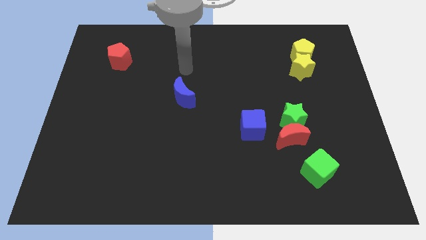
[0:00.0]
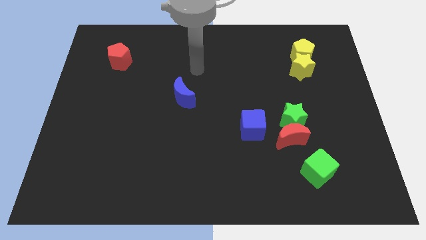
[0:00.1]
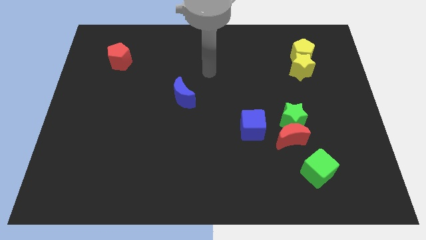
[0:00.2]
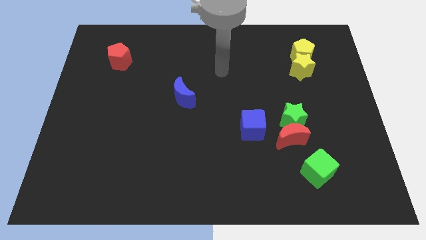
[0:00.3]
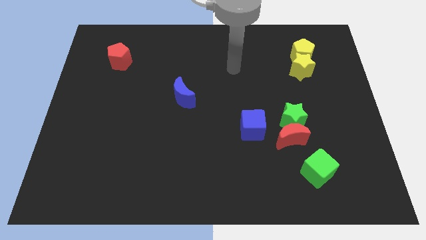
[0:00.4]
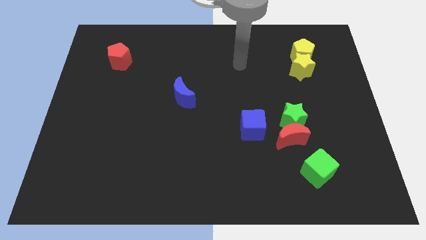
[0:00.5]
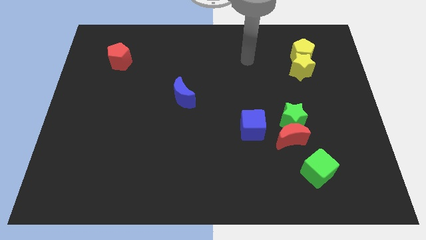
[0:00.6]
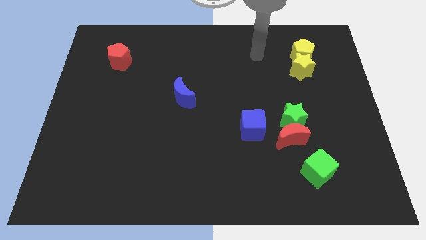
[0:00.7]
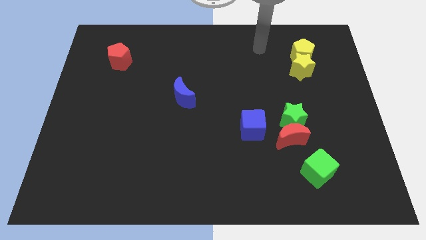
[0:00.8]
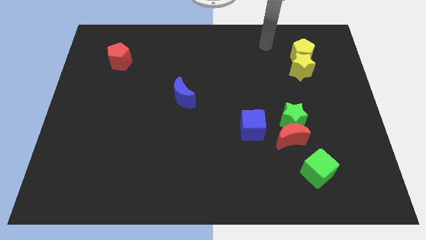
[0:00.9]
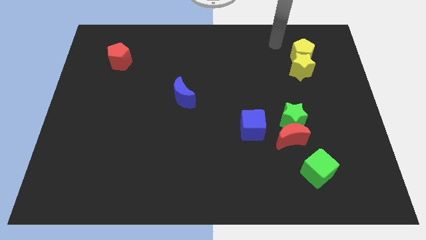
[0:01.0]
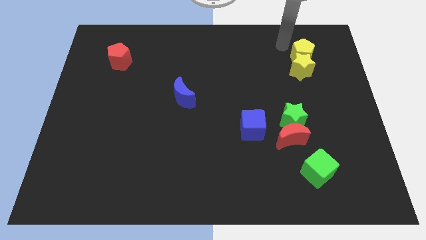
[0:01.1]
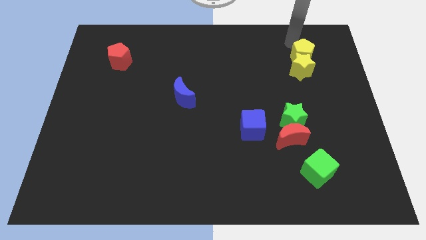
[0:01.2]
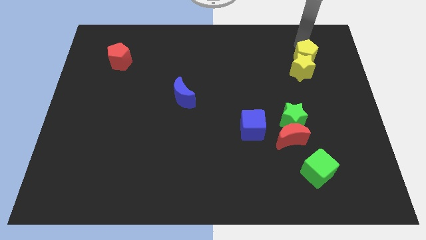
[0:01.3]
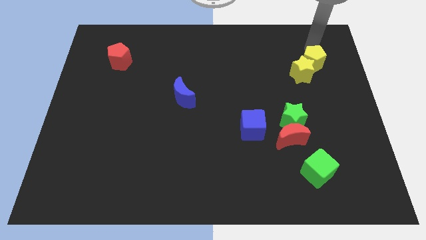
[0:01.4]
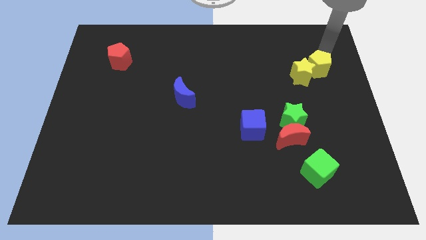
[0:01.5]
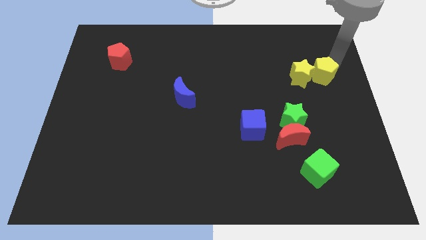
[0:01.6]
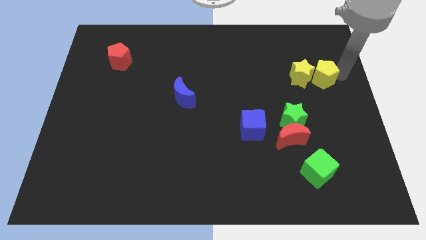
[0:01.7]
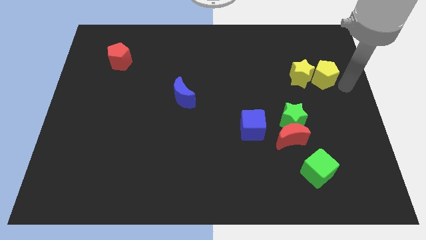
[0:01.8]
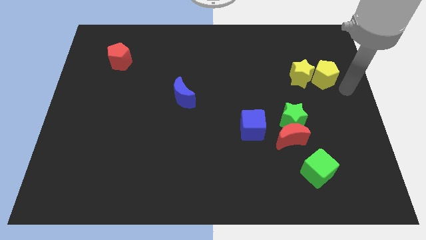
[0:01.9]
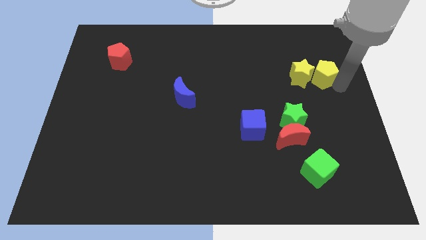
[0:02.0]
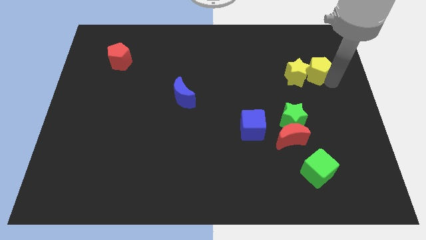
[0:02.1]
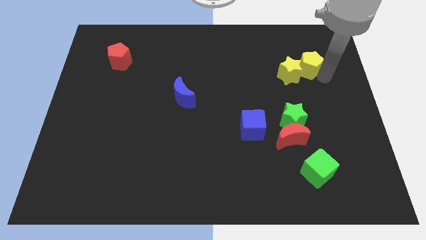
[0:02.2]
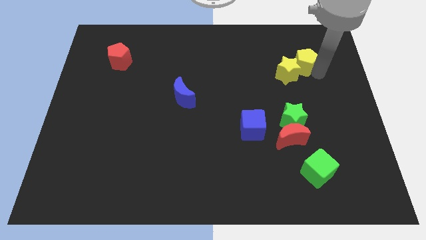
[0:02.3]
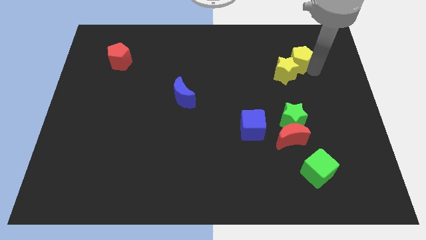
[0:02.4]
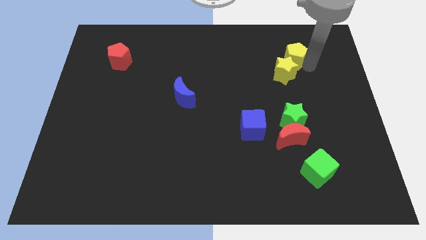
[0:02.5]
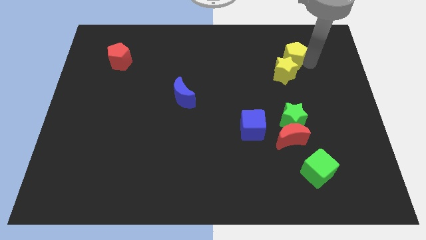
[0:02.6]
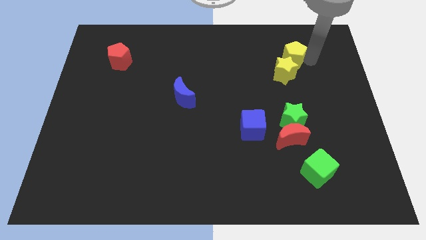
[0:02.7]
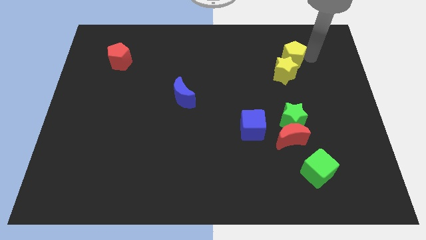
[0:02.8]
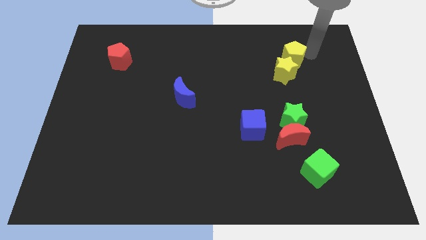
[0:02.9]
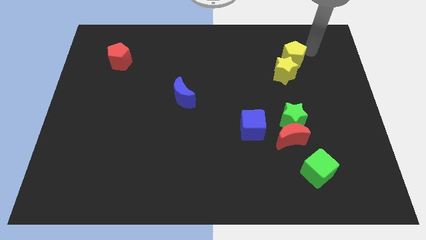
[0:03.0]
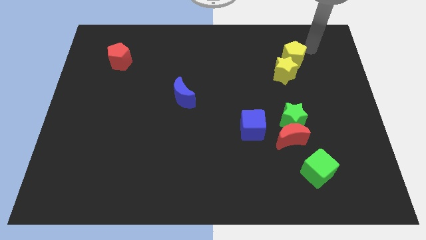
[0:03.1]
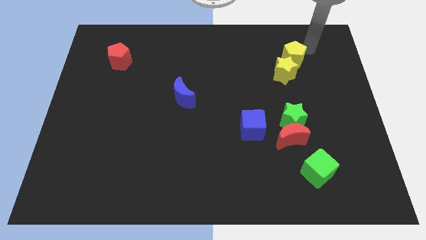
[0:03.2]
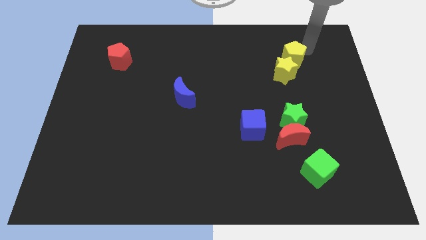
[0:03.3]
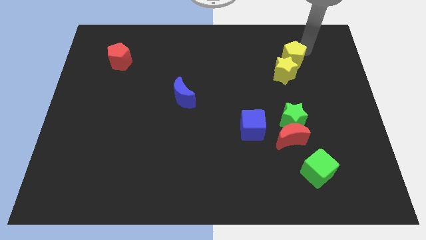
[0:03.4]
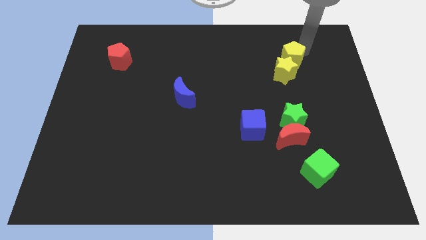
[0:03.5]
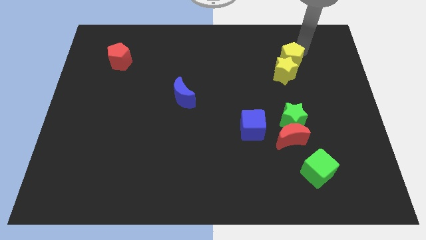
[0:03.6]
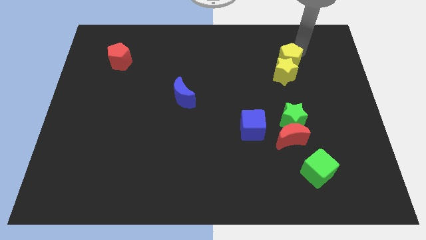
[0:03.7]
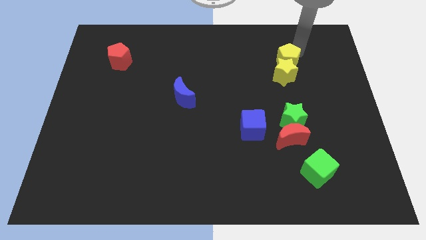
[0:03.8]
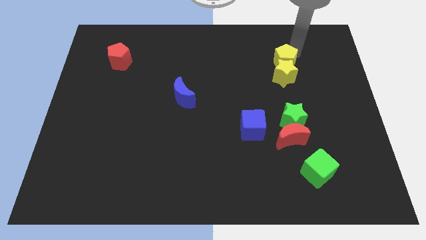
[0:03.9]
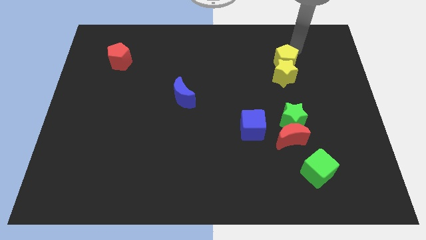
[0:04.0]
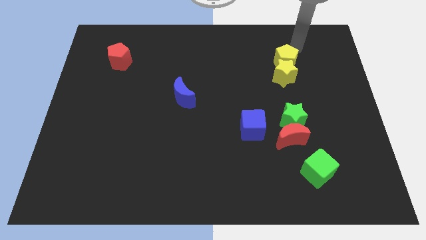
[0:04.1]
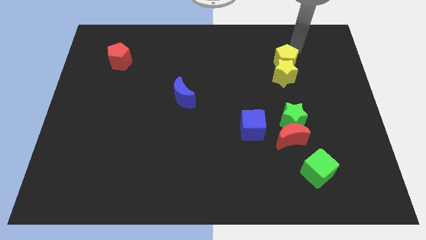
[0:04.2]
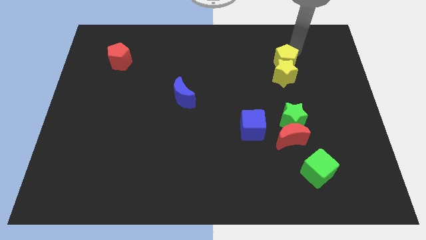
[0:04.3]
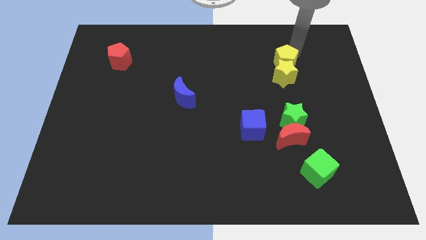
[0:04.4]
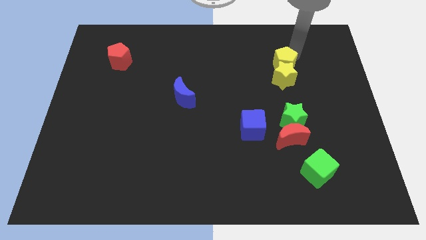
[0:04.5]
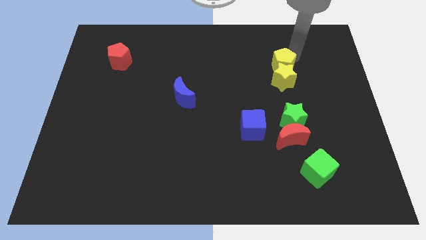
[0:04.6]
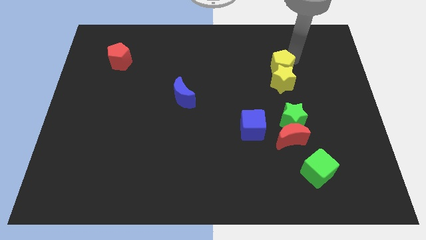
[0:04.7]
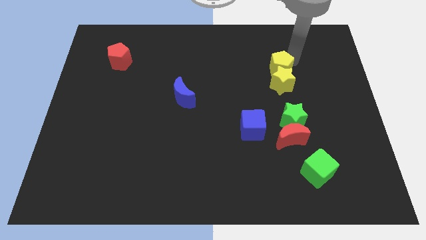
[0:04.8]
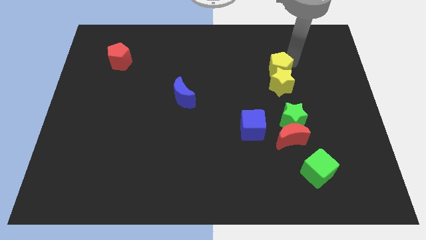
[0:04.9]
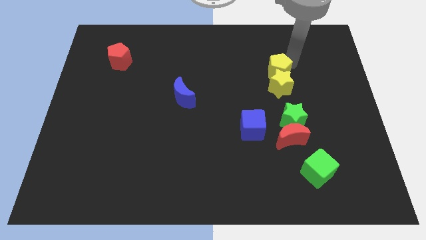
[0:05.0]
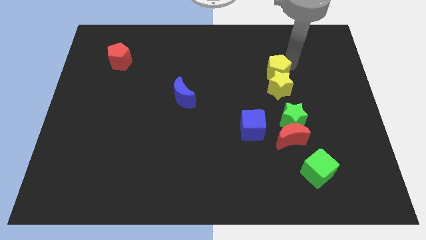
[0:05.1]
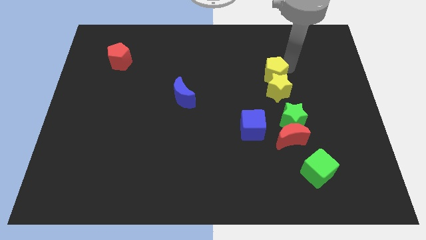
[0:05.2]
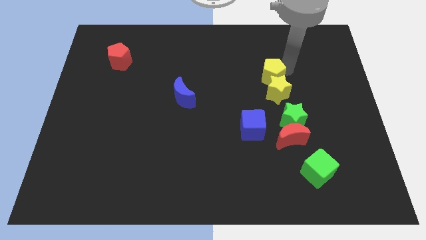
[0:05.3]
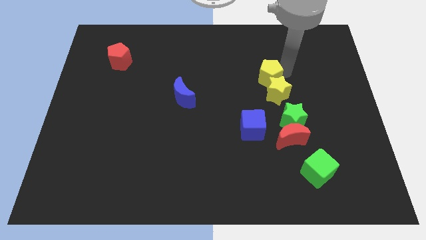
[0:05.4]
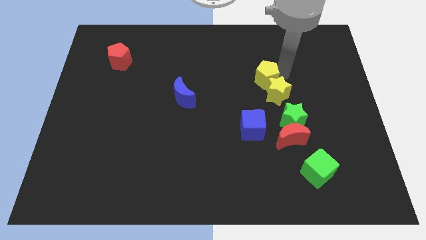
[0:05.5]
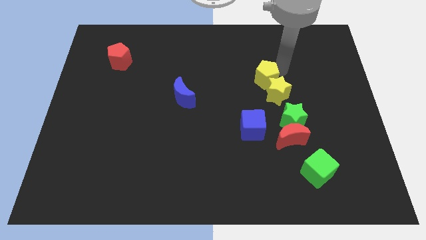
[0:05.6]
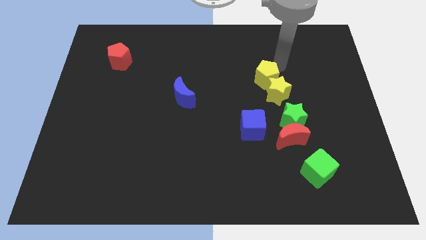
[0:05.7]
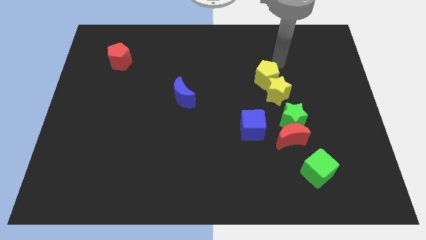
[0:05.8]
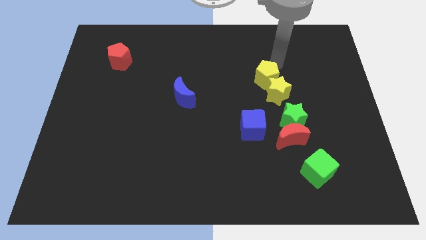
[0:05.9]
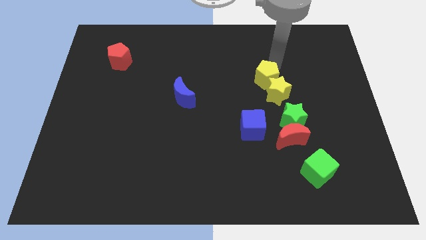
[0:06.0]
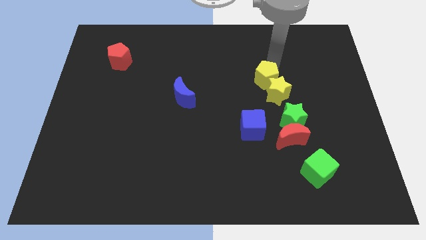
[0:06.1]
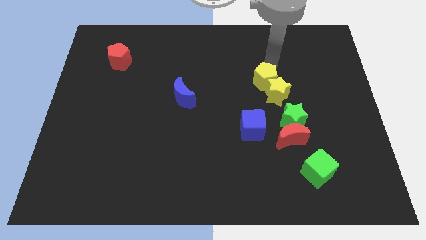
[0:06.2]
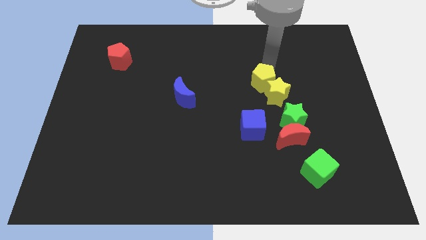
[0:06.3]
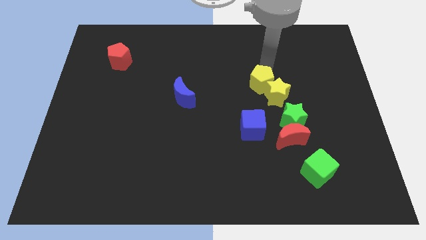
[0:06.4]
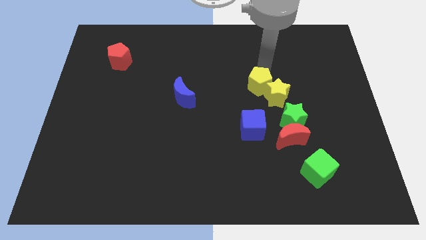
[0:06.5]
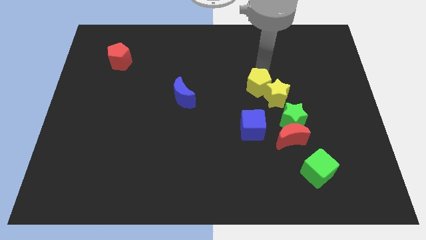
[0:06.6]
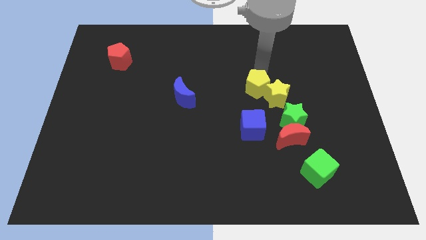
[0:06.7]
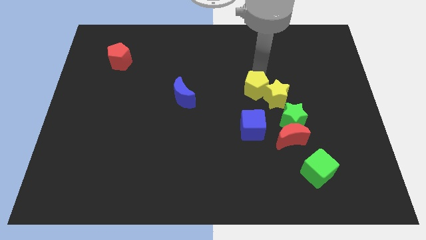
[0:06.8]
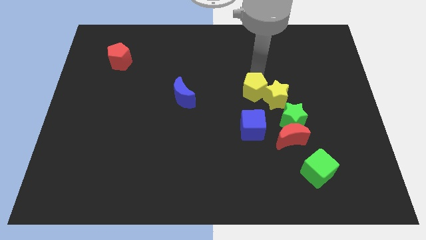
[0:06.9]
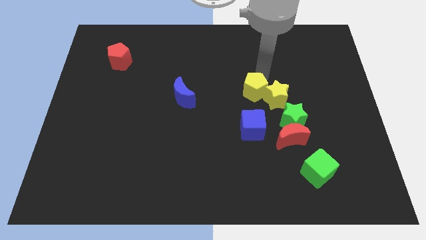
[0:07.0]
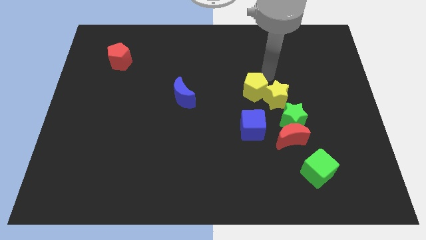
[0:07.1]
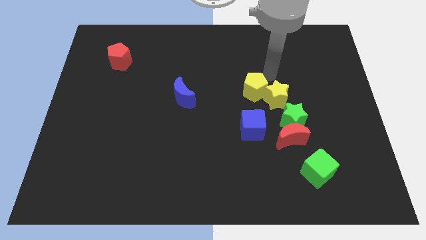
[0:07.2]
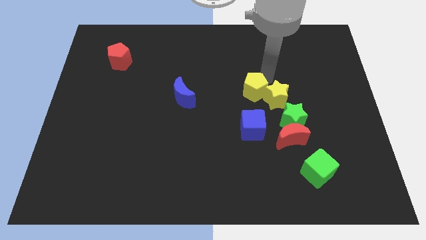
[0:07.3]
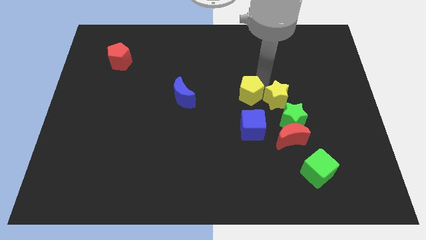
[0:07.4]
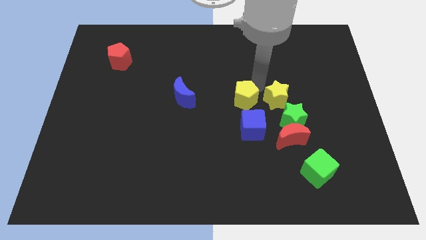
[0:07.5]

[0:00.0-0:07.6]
slide the yellow pentagon downwards and then to the left

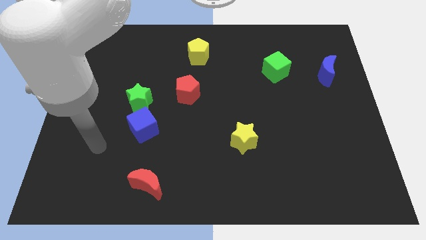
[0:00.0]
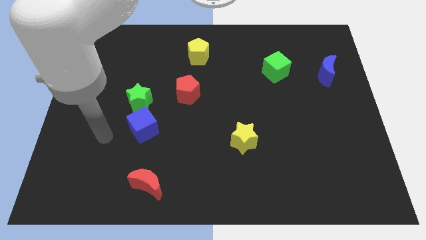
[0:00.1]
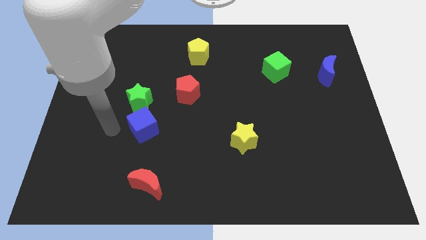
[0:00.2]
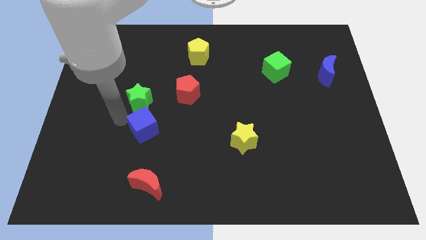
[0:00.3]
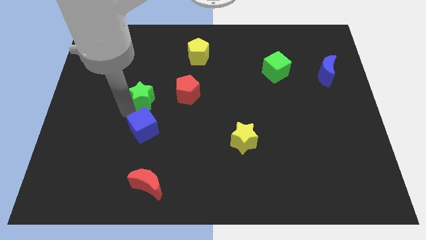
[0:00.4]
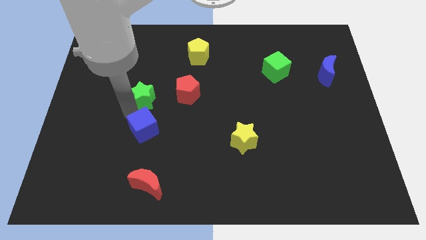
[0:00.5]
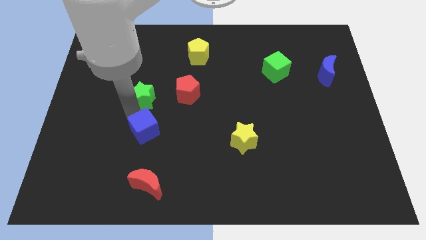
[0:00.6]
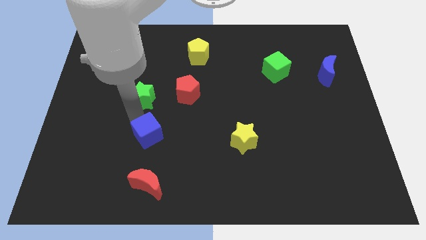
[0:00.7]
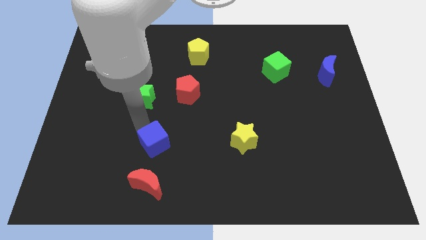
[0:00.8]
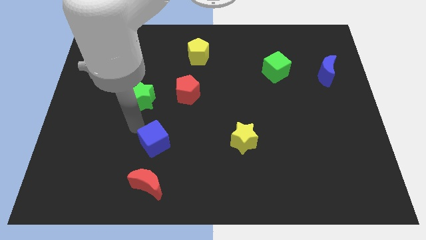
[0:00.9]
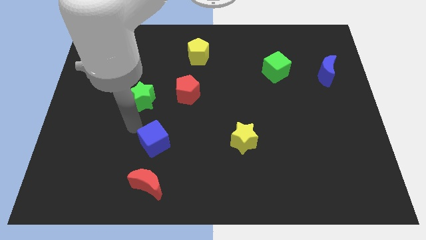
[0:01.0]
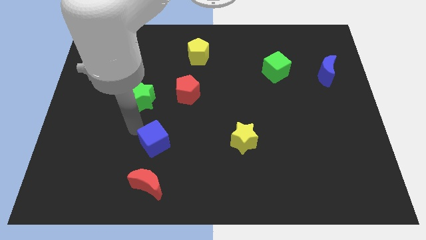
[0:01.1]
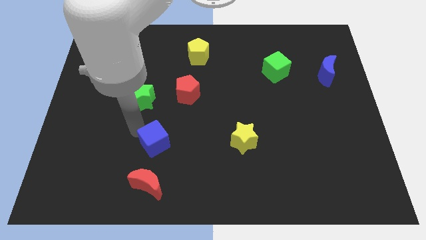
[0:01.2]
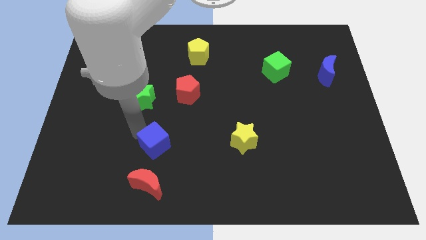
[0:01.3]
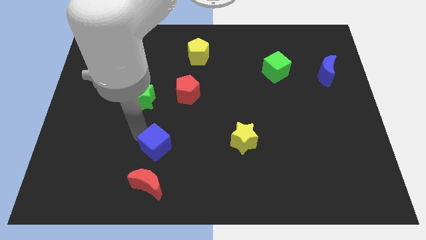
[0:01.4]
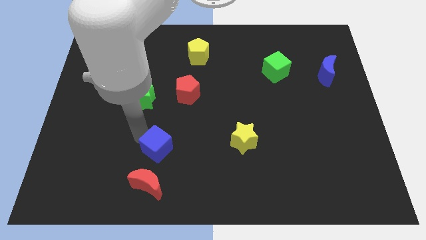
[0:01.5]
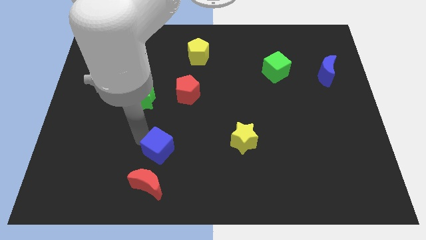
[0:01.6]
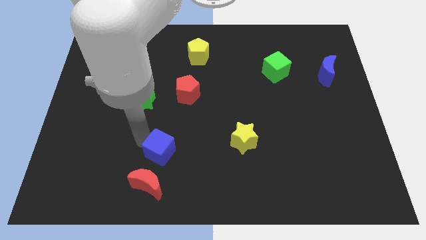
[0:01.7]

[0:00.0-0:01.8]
move the blue cube a bit down and then to the right
